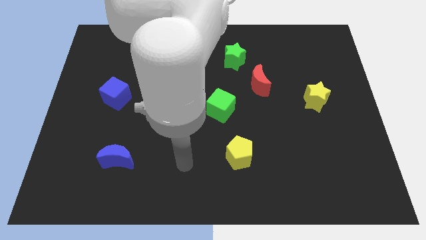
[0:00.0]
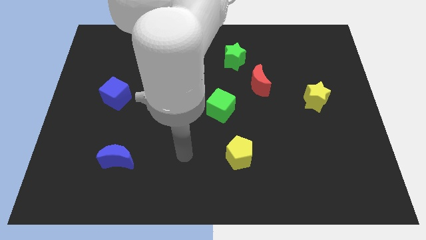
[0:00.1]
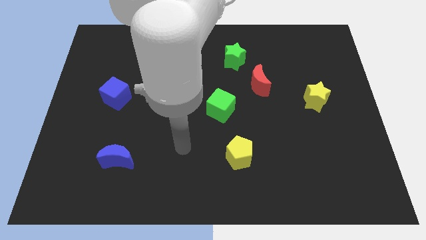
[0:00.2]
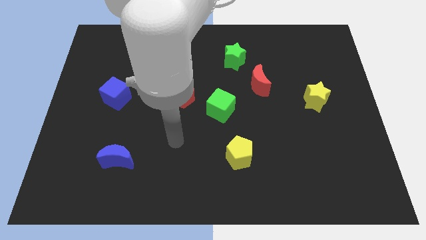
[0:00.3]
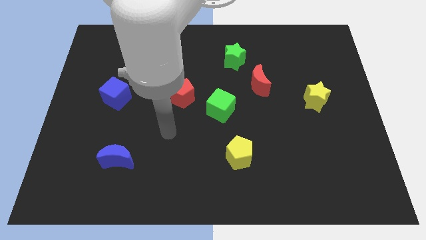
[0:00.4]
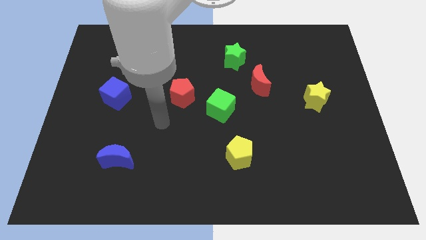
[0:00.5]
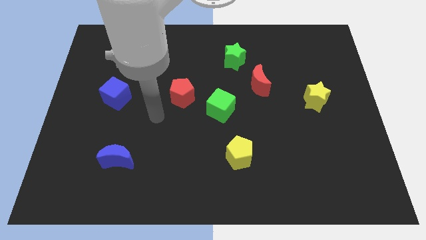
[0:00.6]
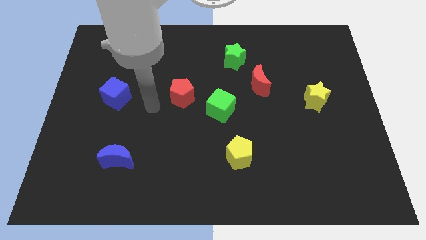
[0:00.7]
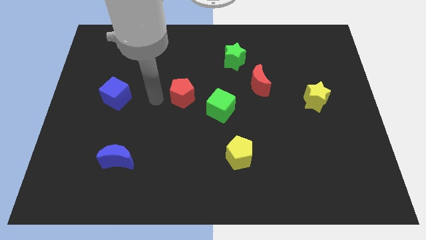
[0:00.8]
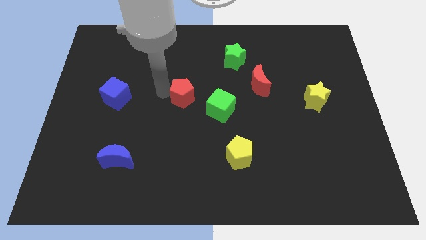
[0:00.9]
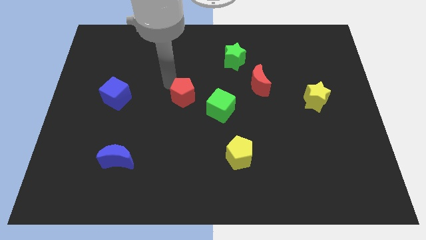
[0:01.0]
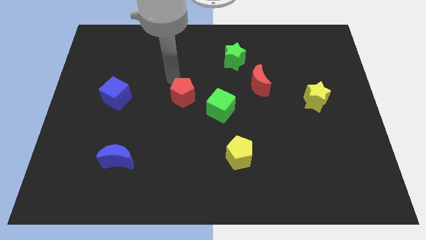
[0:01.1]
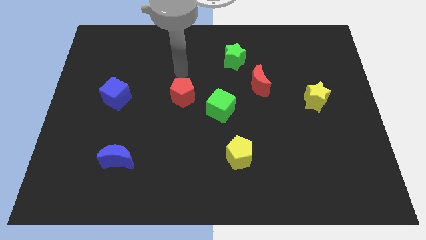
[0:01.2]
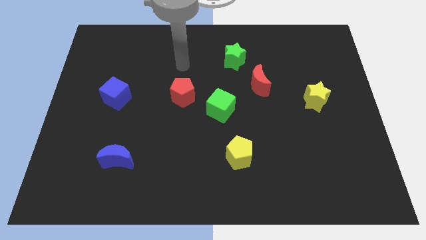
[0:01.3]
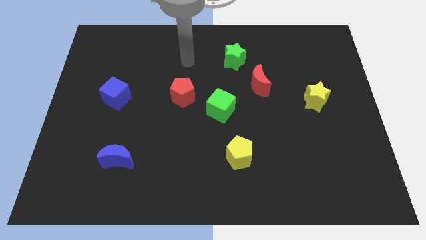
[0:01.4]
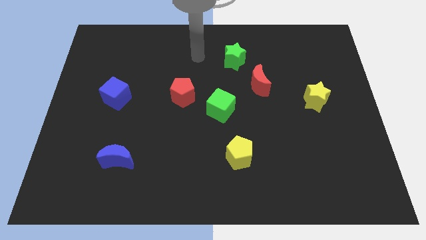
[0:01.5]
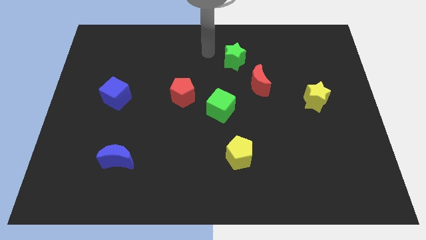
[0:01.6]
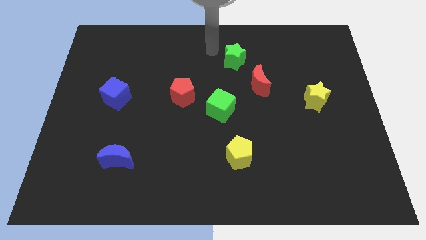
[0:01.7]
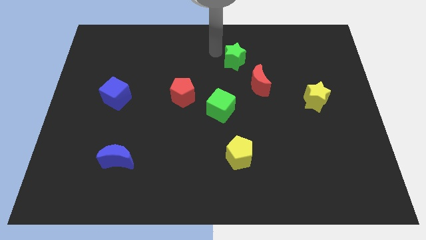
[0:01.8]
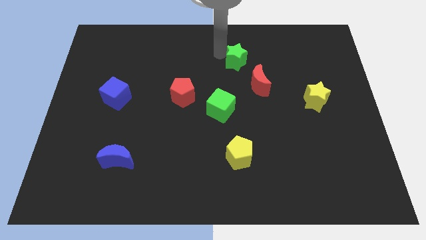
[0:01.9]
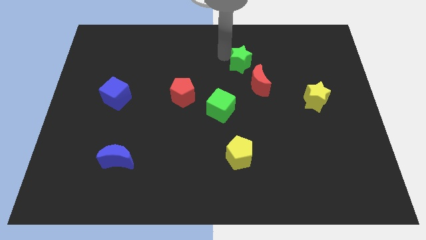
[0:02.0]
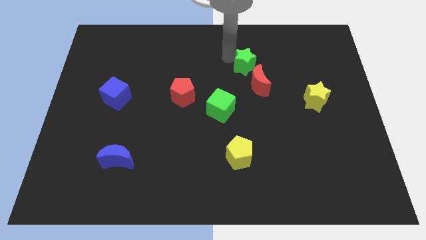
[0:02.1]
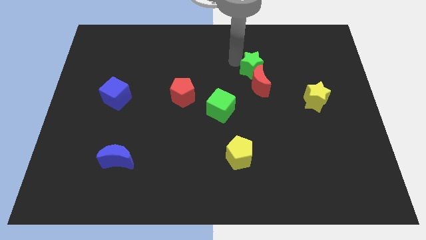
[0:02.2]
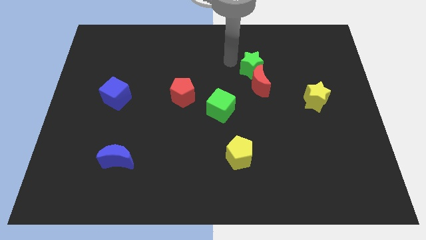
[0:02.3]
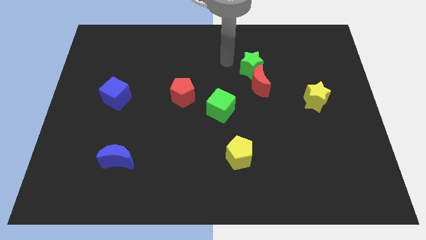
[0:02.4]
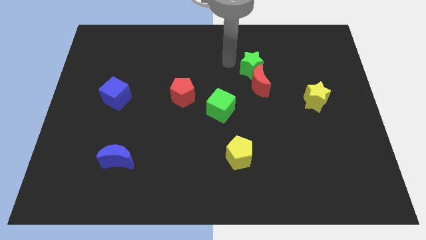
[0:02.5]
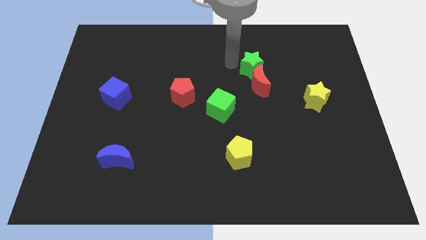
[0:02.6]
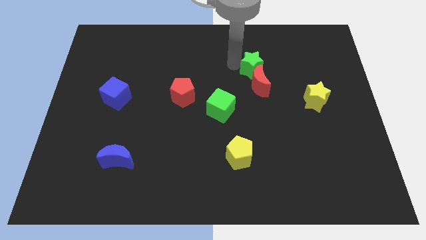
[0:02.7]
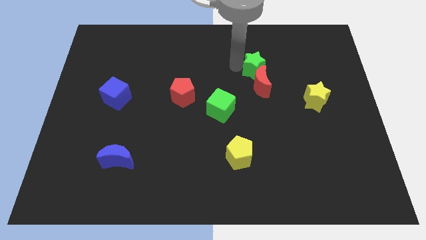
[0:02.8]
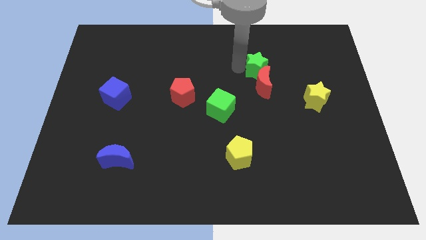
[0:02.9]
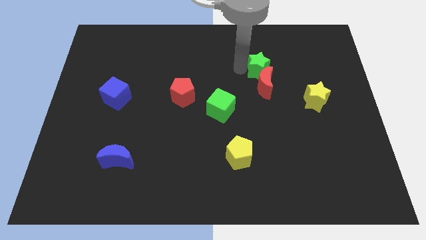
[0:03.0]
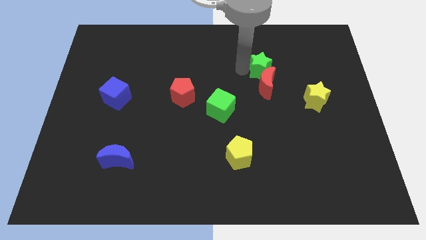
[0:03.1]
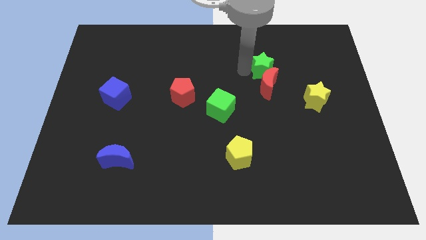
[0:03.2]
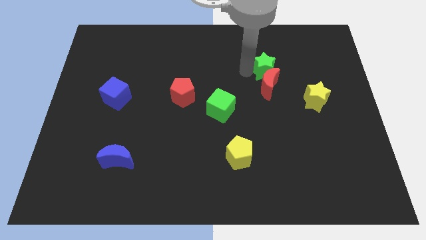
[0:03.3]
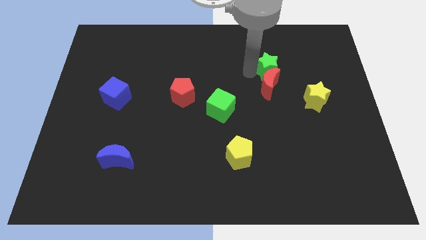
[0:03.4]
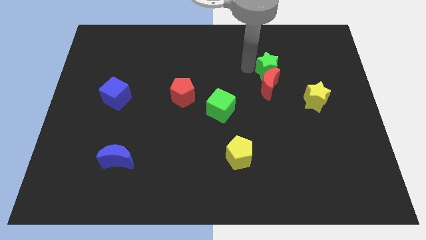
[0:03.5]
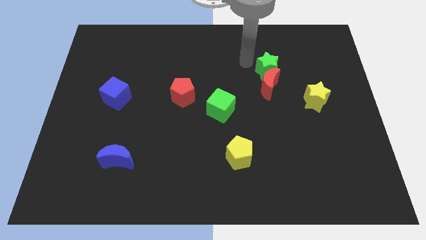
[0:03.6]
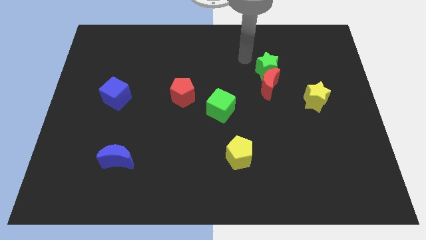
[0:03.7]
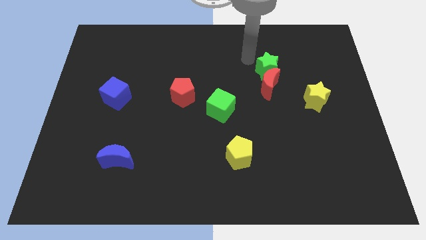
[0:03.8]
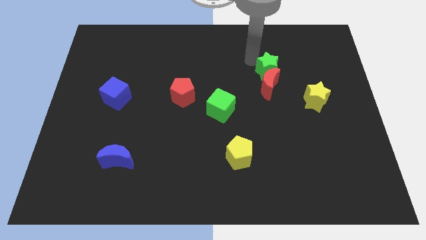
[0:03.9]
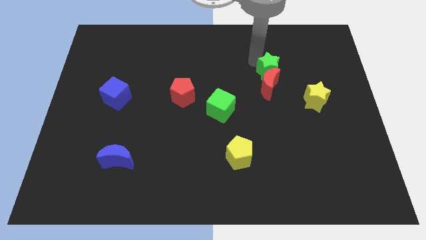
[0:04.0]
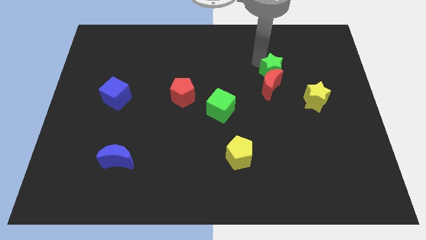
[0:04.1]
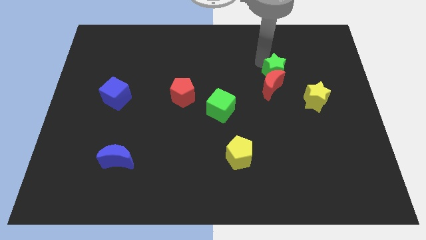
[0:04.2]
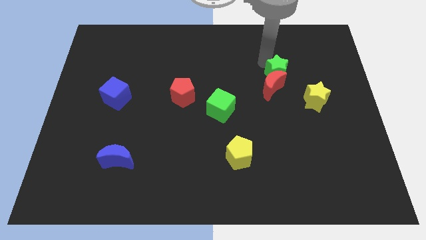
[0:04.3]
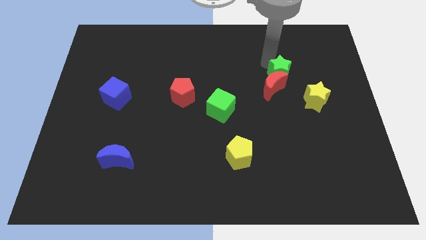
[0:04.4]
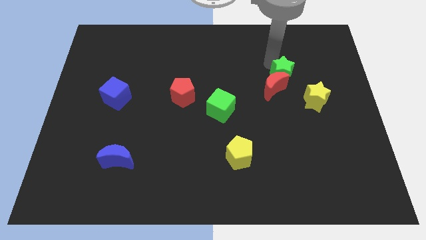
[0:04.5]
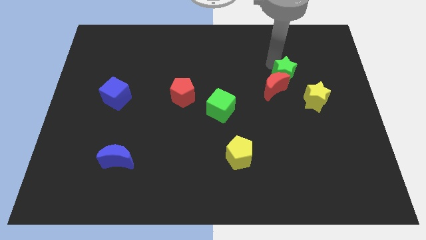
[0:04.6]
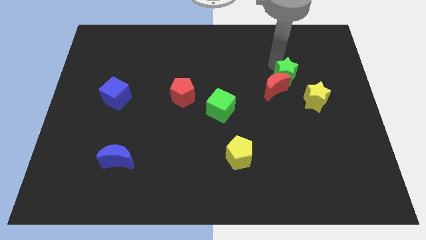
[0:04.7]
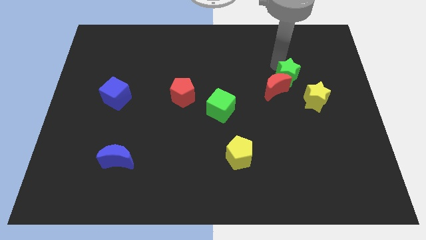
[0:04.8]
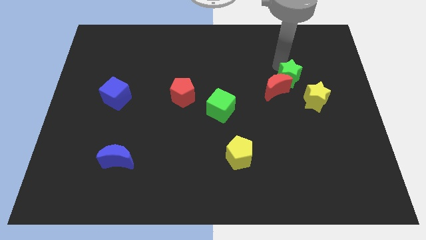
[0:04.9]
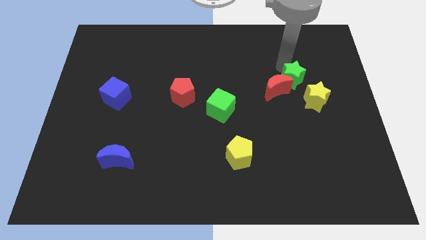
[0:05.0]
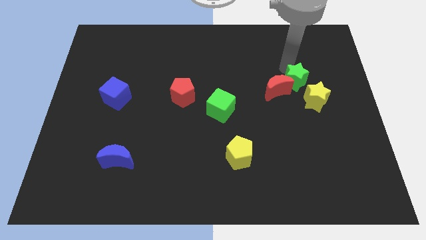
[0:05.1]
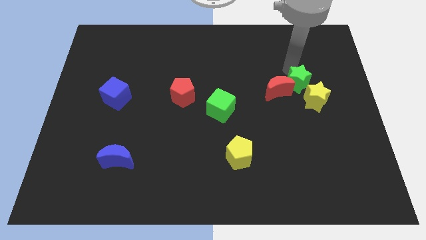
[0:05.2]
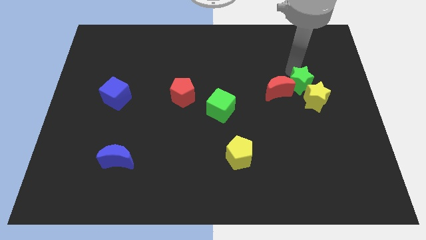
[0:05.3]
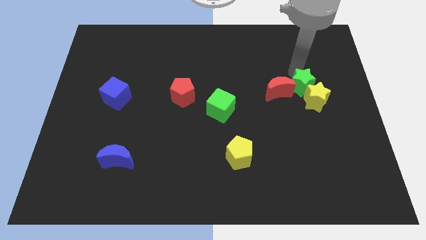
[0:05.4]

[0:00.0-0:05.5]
move the green star close to the yellow star

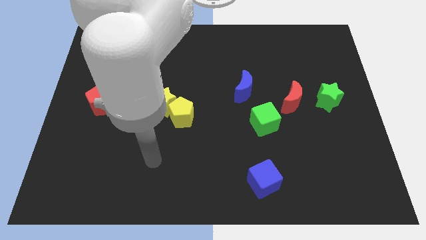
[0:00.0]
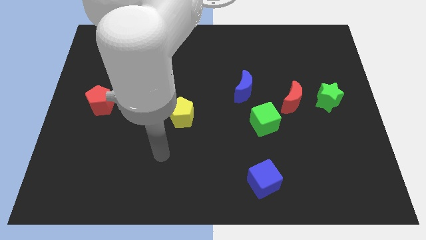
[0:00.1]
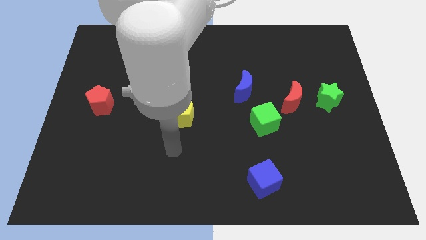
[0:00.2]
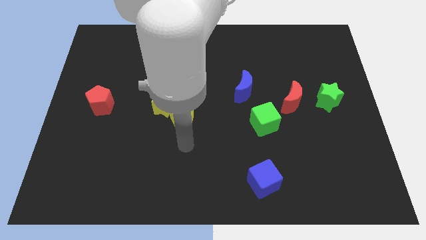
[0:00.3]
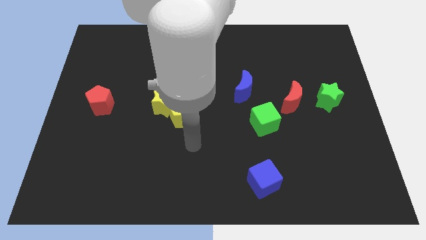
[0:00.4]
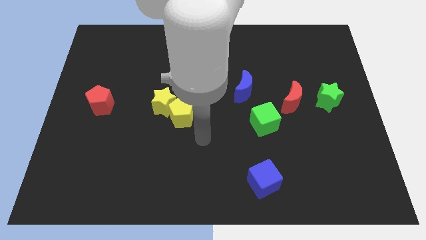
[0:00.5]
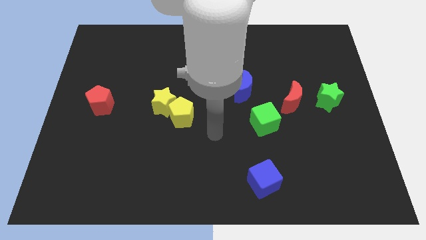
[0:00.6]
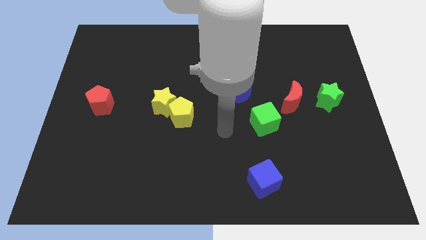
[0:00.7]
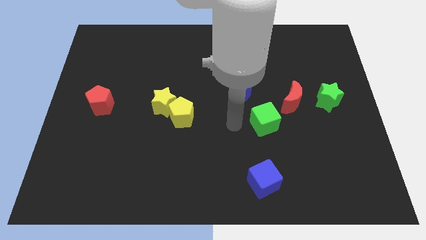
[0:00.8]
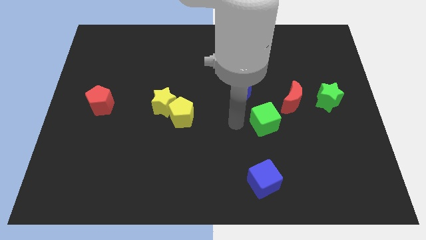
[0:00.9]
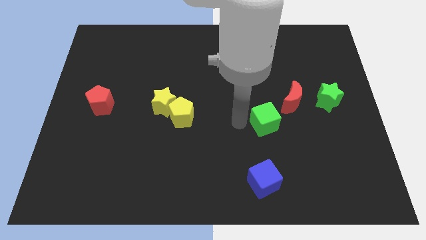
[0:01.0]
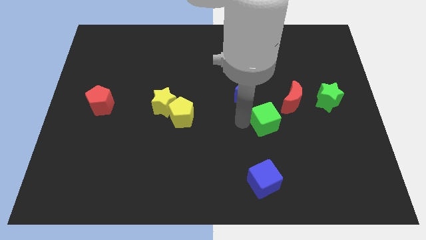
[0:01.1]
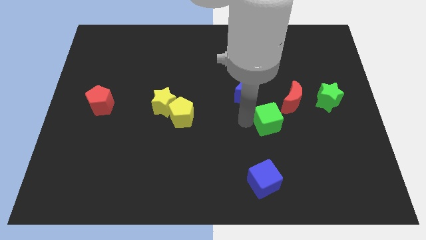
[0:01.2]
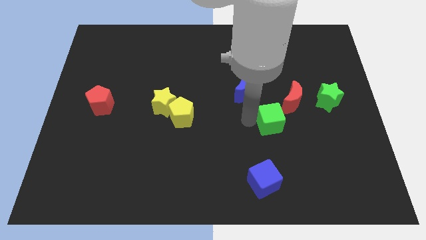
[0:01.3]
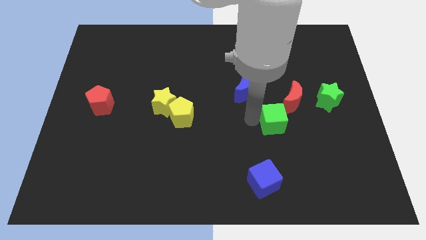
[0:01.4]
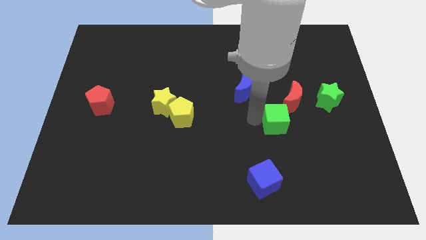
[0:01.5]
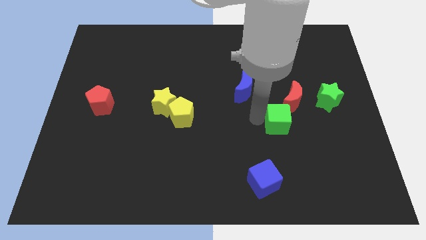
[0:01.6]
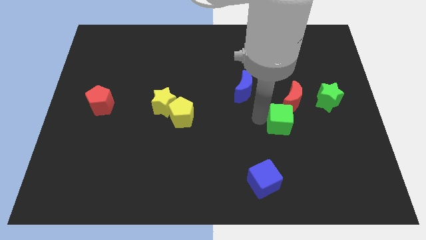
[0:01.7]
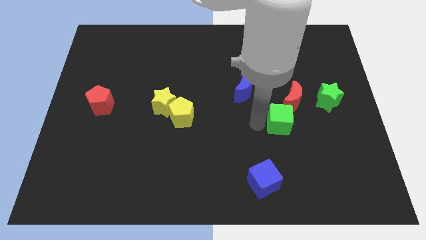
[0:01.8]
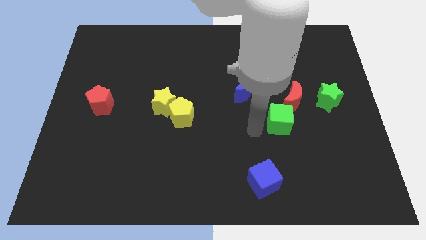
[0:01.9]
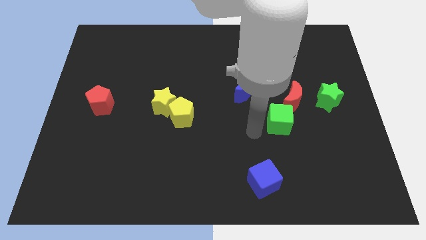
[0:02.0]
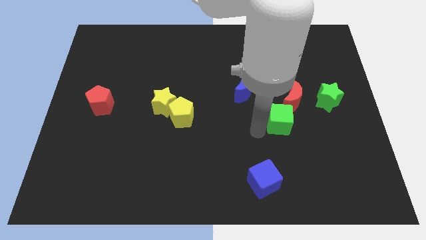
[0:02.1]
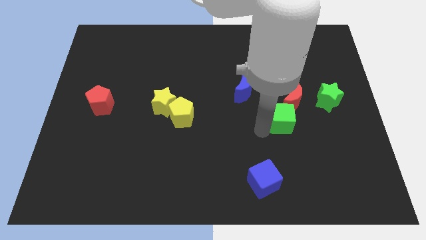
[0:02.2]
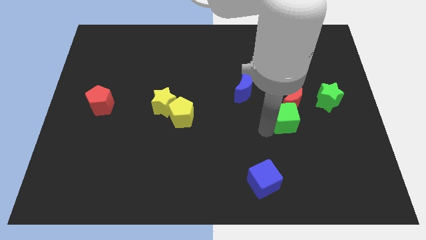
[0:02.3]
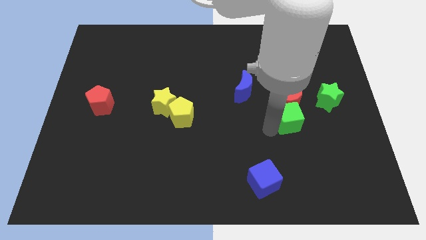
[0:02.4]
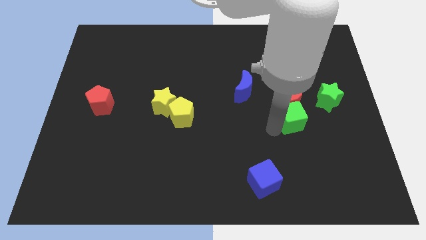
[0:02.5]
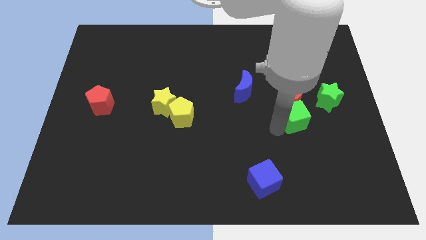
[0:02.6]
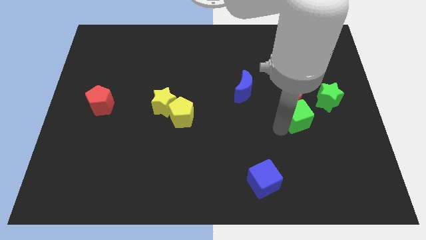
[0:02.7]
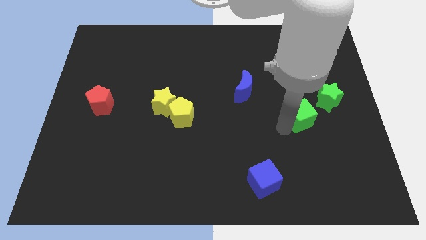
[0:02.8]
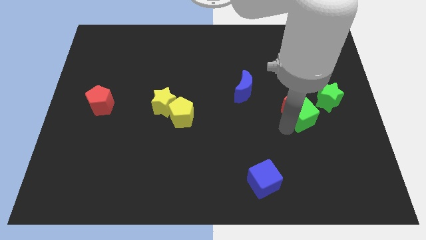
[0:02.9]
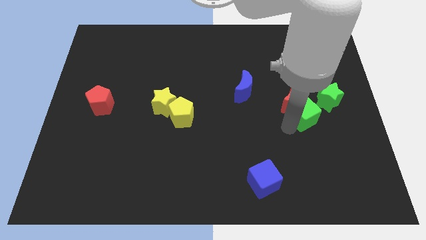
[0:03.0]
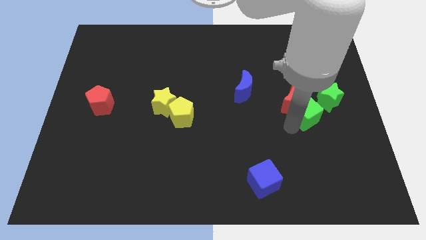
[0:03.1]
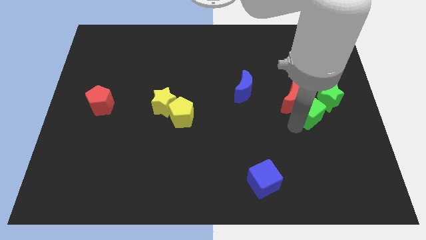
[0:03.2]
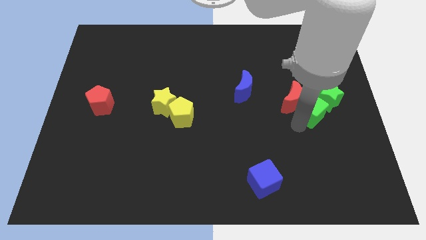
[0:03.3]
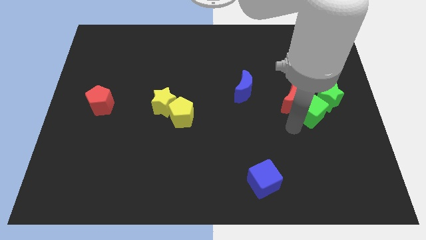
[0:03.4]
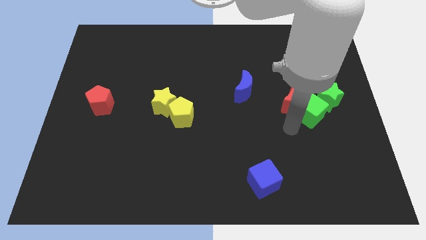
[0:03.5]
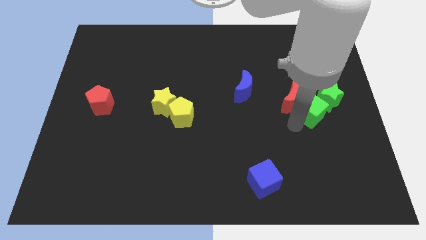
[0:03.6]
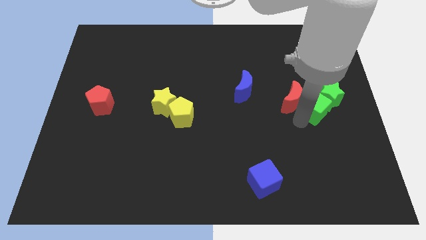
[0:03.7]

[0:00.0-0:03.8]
move the green cube towards the green star
